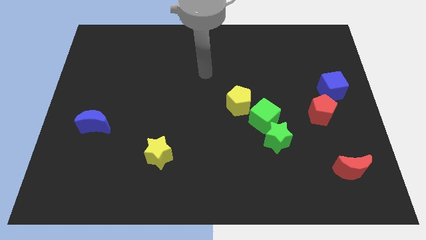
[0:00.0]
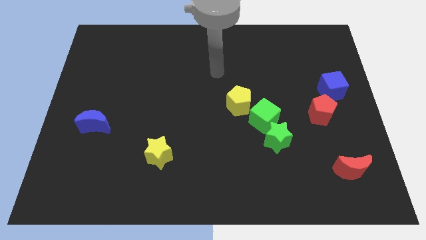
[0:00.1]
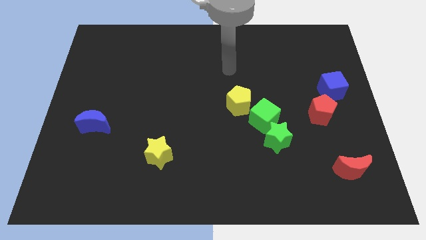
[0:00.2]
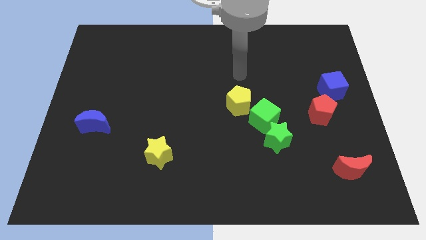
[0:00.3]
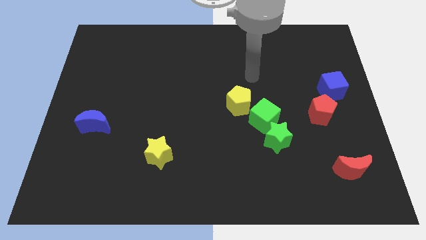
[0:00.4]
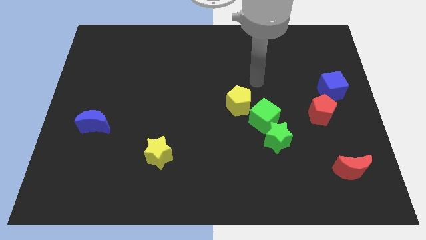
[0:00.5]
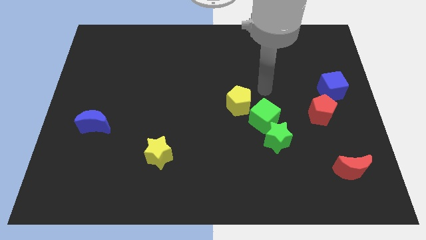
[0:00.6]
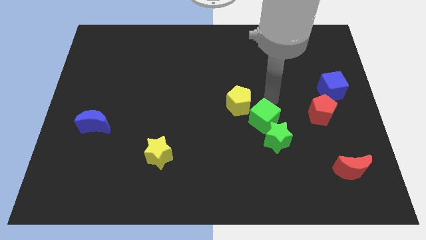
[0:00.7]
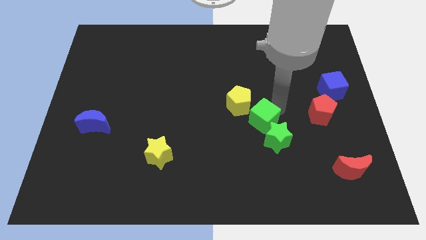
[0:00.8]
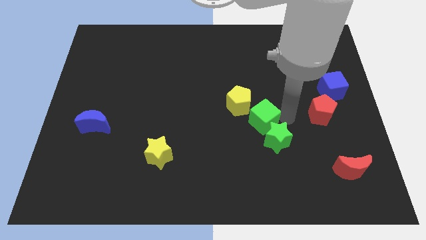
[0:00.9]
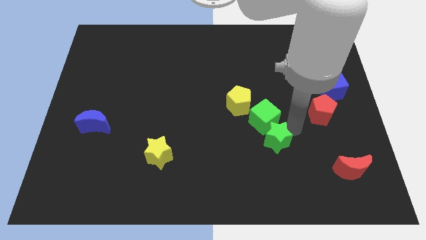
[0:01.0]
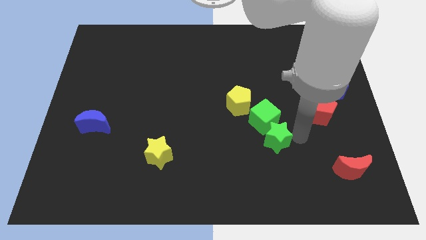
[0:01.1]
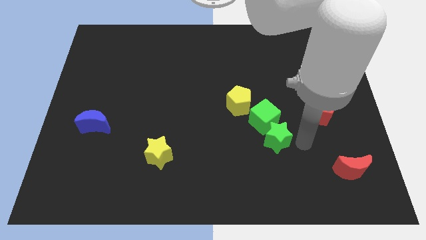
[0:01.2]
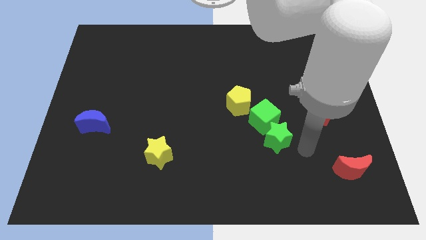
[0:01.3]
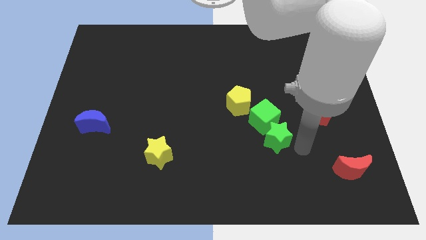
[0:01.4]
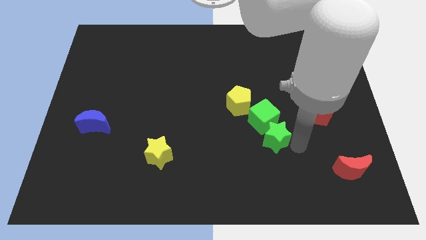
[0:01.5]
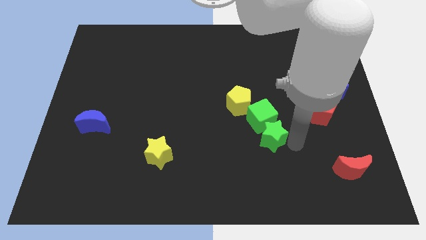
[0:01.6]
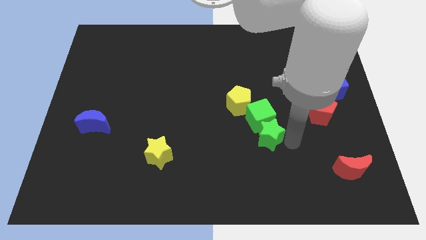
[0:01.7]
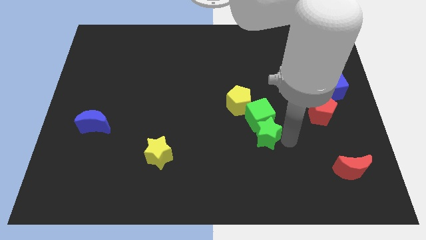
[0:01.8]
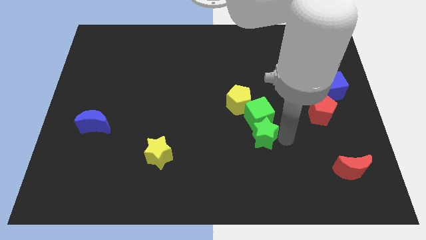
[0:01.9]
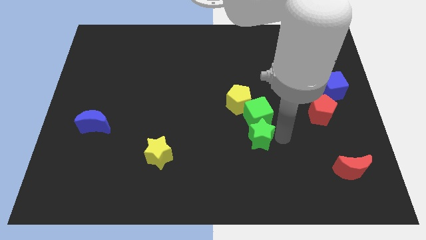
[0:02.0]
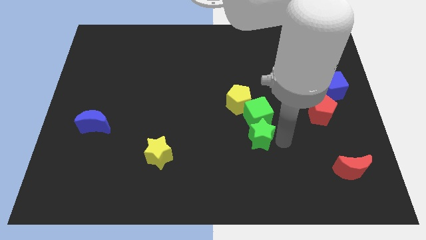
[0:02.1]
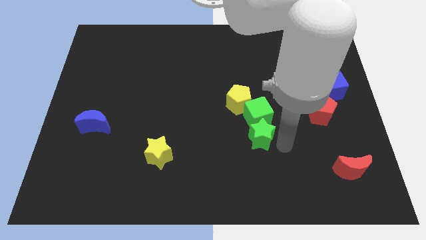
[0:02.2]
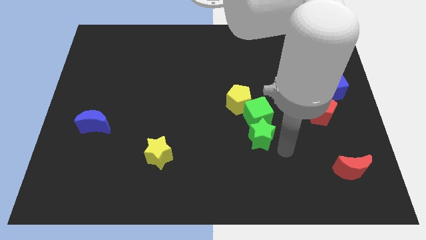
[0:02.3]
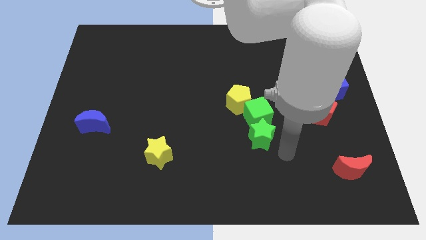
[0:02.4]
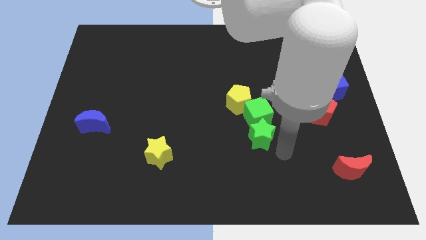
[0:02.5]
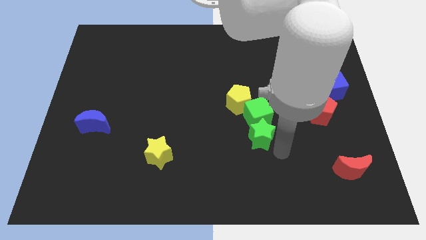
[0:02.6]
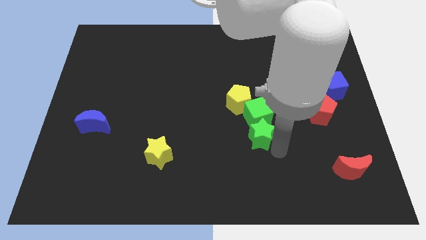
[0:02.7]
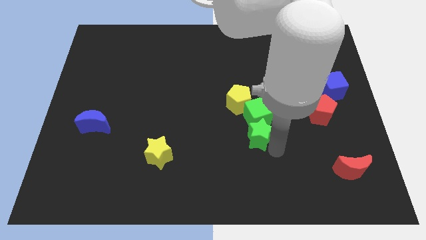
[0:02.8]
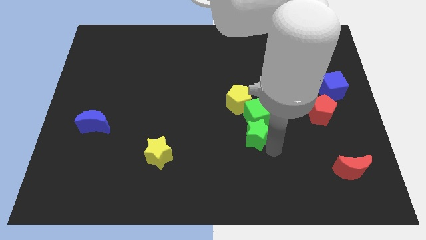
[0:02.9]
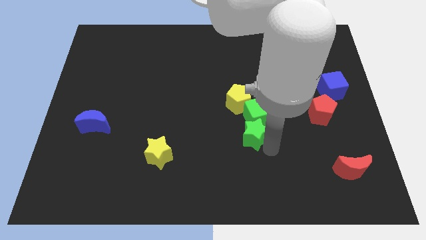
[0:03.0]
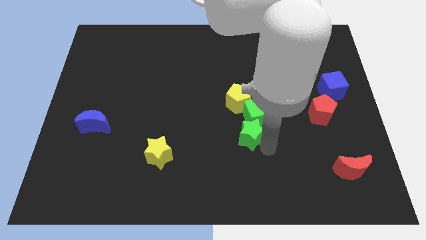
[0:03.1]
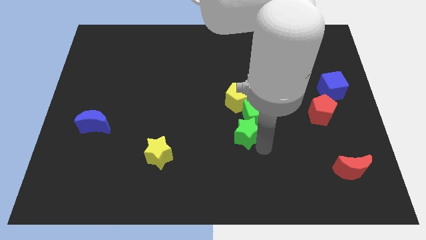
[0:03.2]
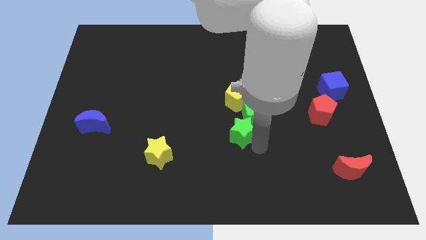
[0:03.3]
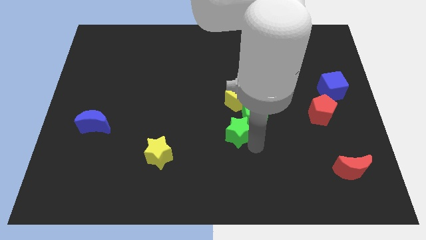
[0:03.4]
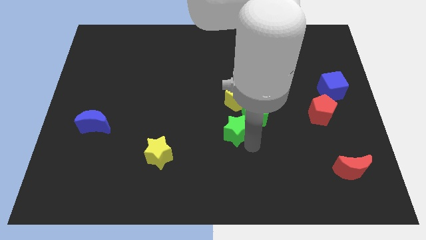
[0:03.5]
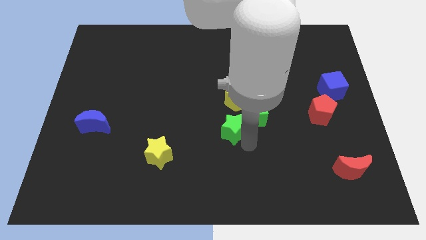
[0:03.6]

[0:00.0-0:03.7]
slide the green star upwards and left a little

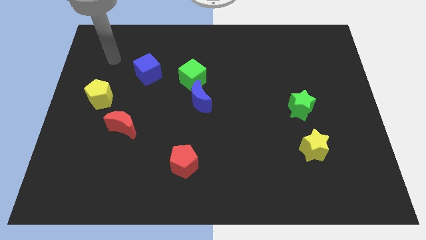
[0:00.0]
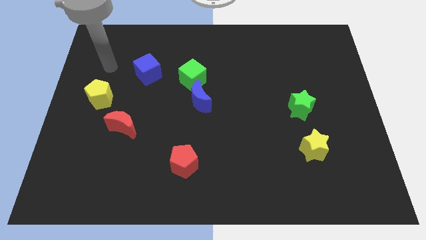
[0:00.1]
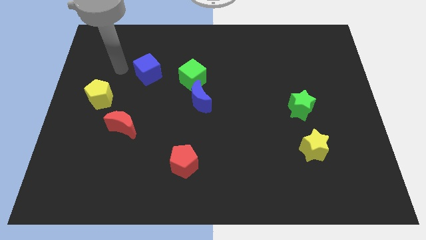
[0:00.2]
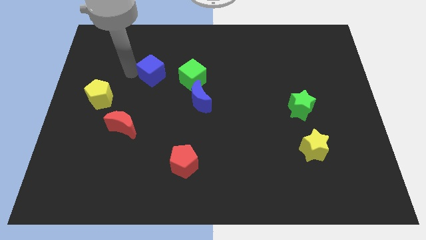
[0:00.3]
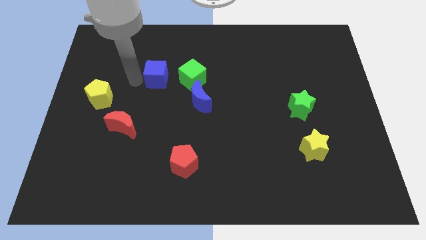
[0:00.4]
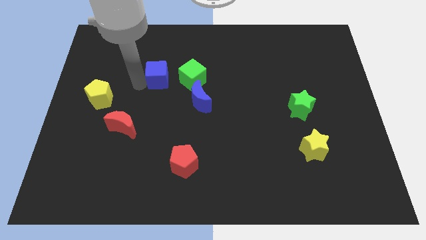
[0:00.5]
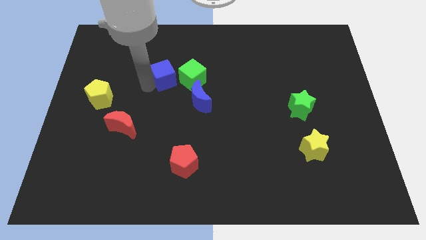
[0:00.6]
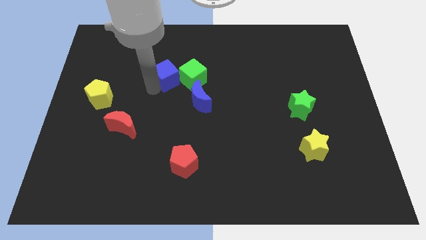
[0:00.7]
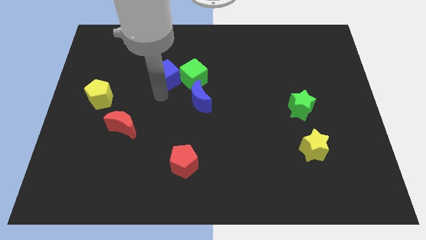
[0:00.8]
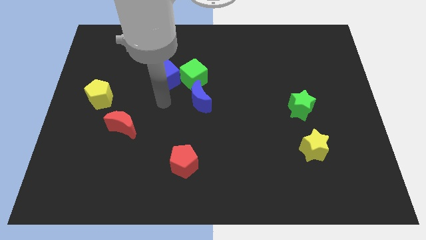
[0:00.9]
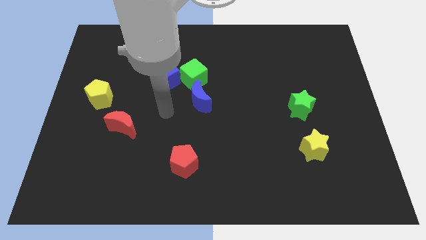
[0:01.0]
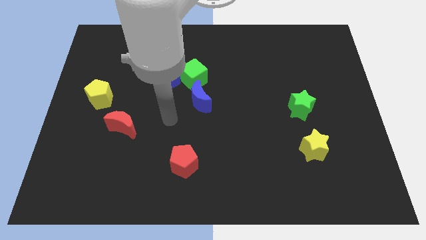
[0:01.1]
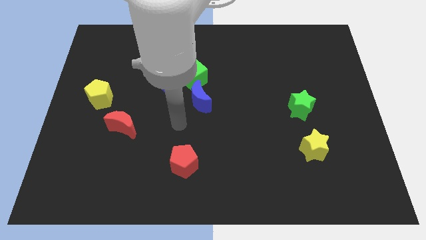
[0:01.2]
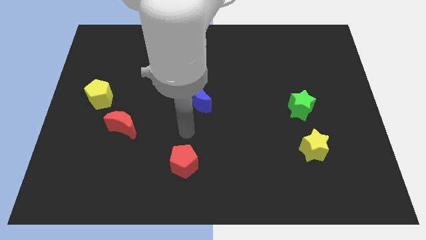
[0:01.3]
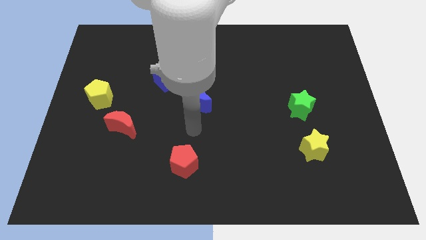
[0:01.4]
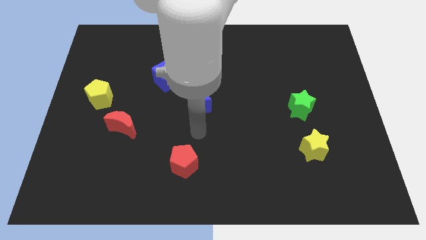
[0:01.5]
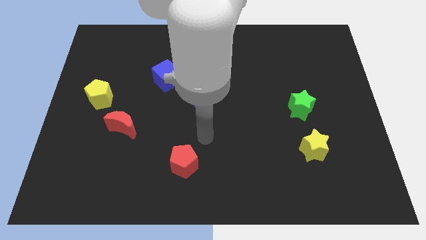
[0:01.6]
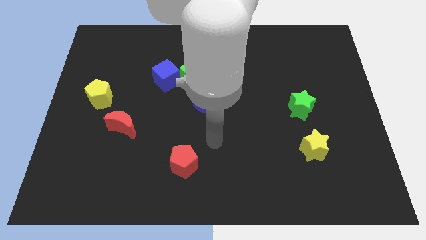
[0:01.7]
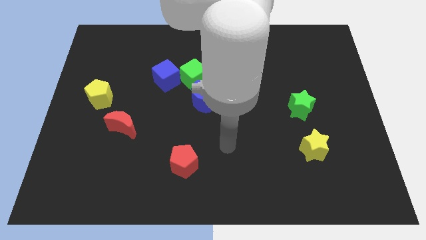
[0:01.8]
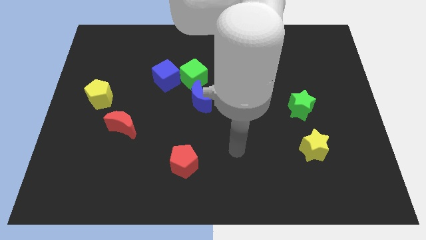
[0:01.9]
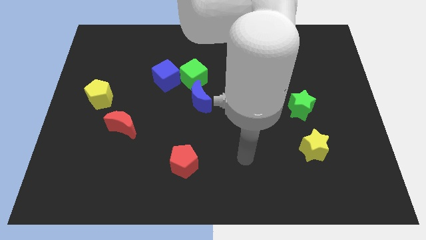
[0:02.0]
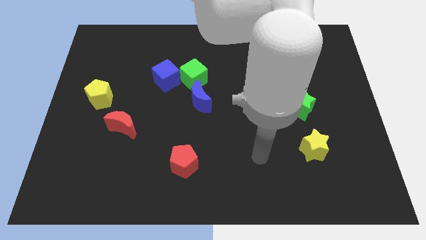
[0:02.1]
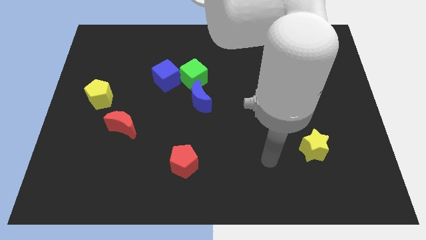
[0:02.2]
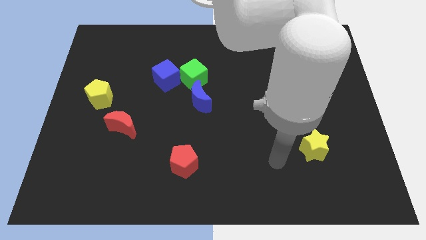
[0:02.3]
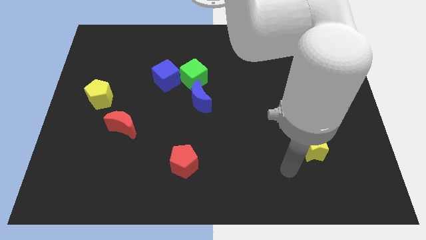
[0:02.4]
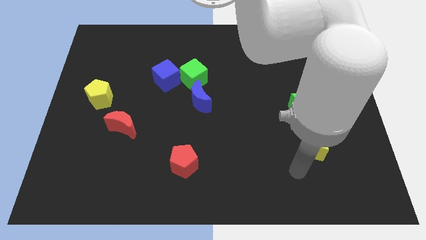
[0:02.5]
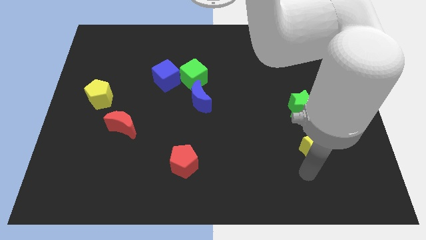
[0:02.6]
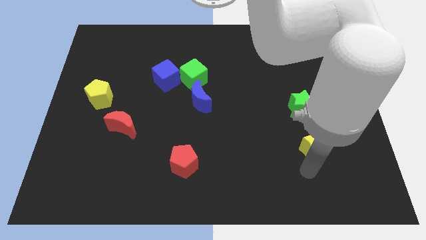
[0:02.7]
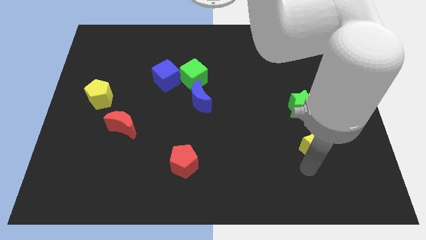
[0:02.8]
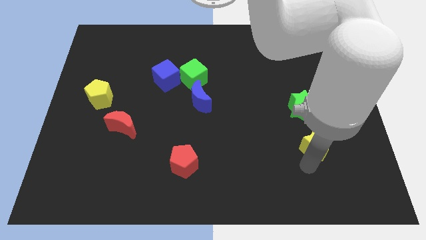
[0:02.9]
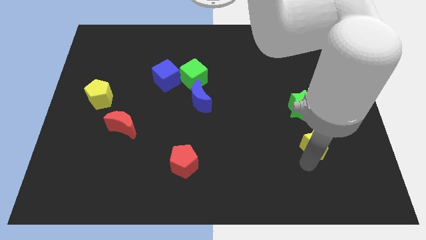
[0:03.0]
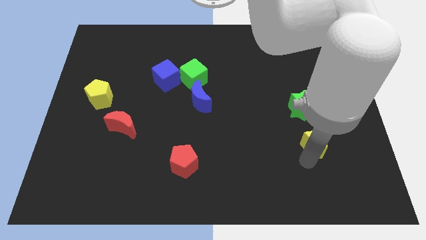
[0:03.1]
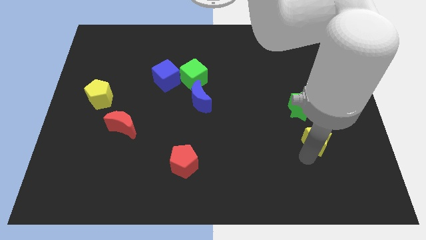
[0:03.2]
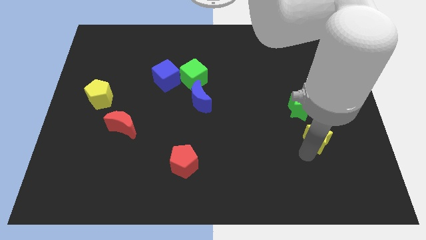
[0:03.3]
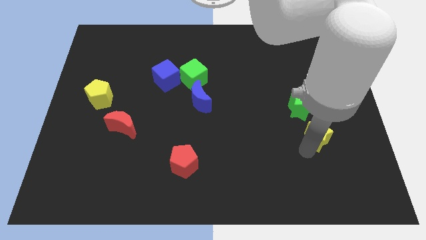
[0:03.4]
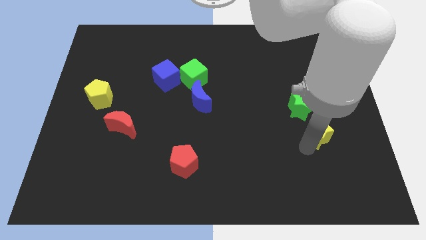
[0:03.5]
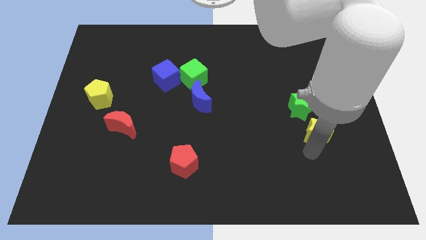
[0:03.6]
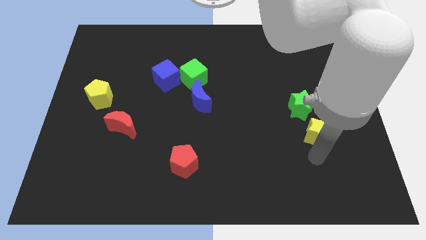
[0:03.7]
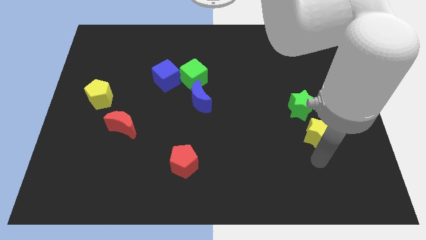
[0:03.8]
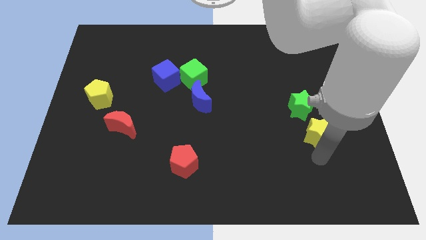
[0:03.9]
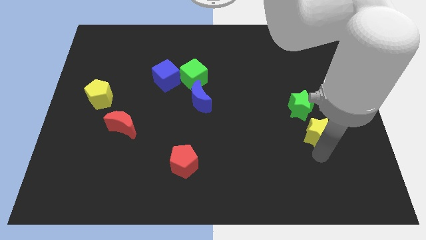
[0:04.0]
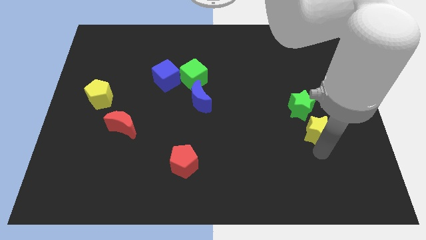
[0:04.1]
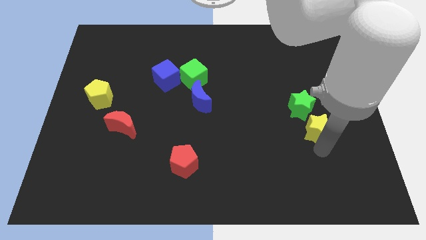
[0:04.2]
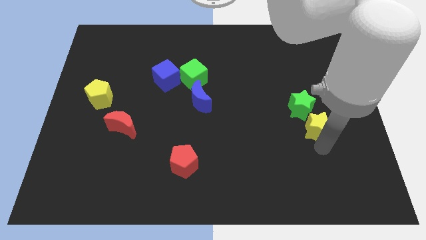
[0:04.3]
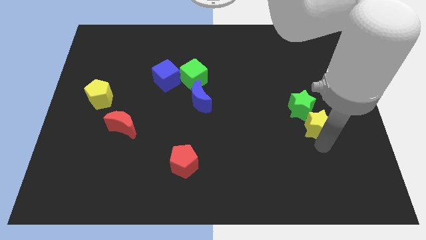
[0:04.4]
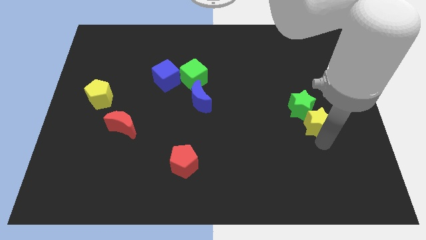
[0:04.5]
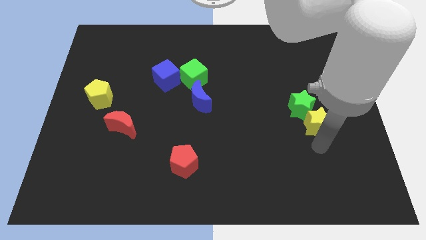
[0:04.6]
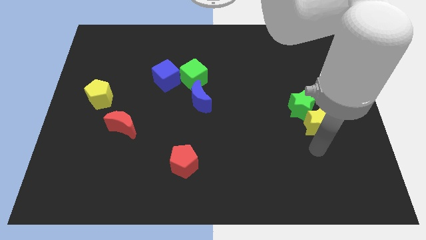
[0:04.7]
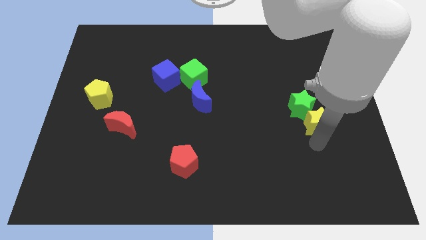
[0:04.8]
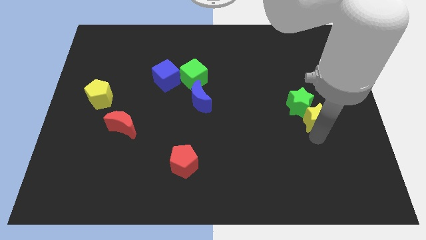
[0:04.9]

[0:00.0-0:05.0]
slightly slide the yellow star upwards
